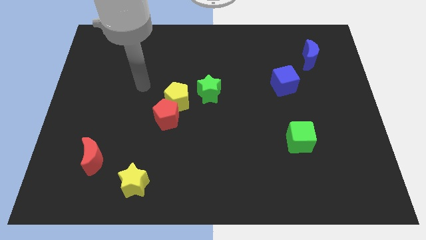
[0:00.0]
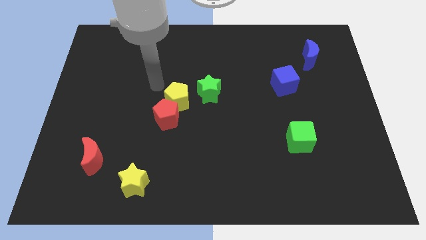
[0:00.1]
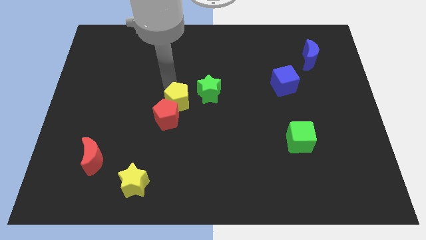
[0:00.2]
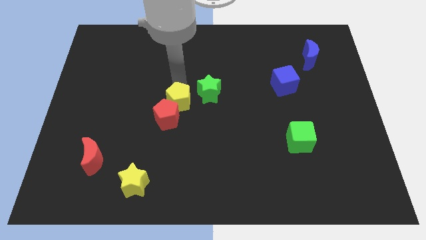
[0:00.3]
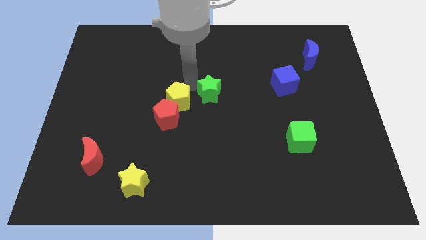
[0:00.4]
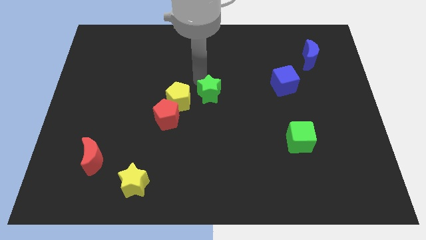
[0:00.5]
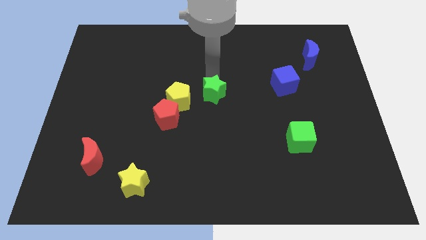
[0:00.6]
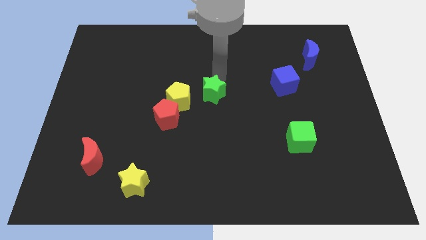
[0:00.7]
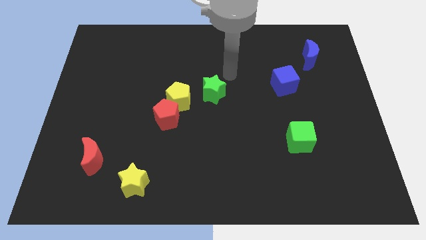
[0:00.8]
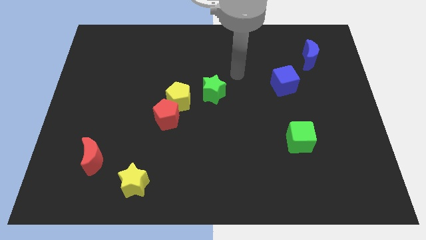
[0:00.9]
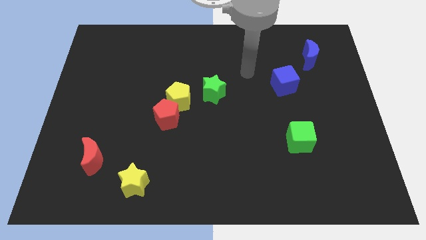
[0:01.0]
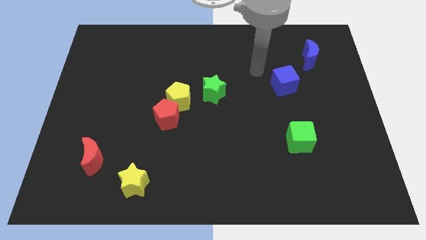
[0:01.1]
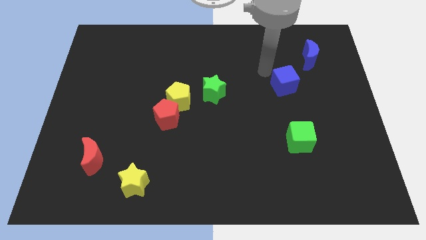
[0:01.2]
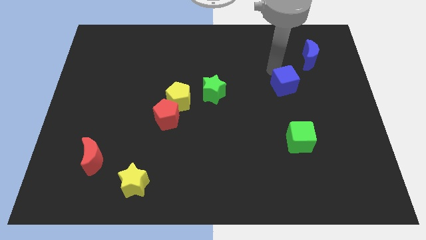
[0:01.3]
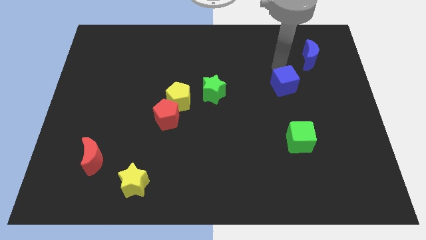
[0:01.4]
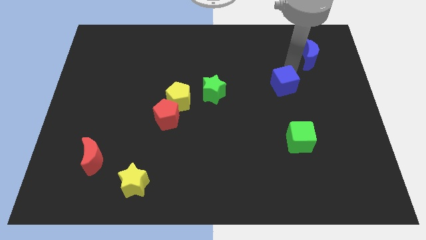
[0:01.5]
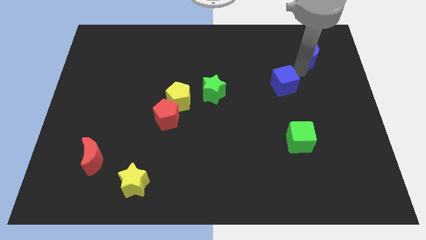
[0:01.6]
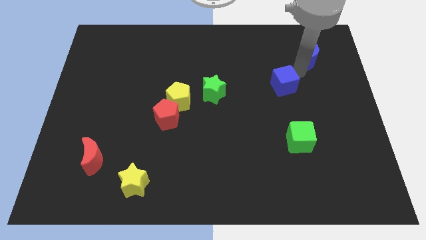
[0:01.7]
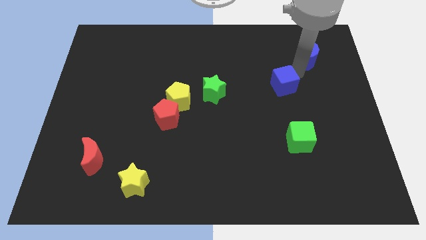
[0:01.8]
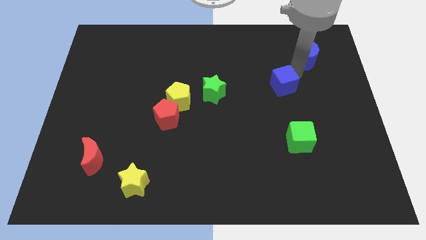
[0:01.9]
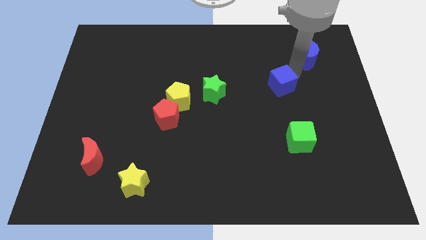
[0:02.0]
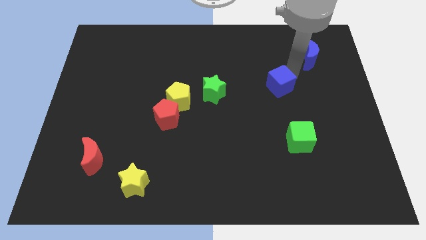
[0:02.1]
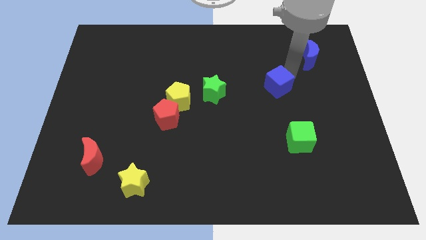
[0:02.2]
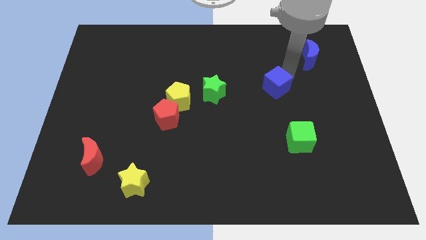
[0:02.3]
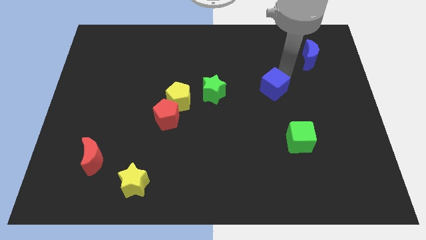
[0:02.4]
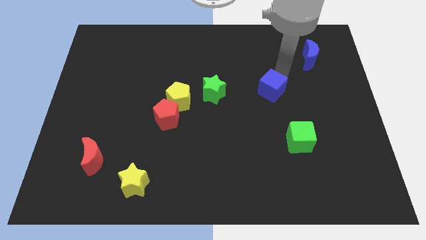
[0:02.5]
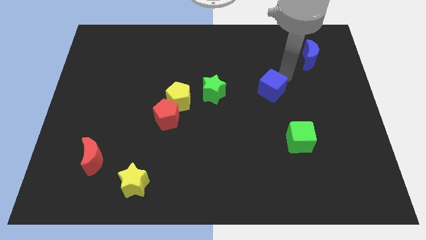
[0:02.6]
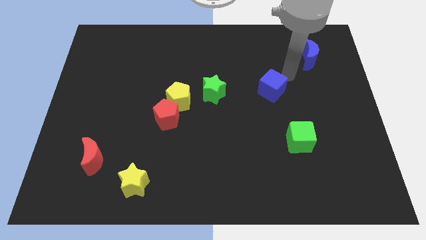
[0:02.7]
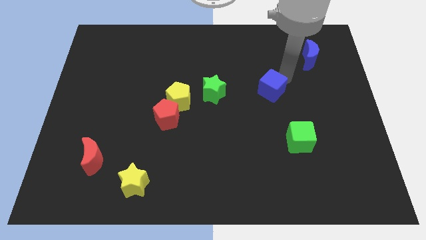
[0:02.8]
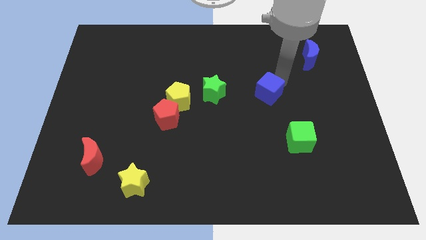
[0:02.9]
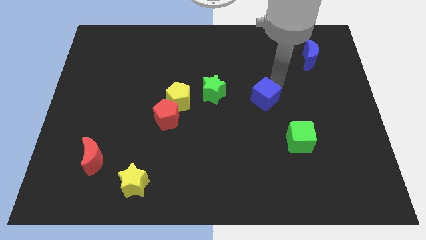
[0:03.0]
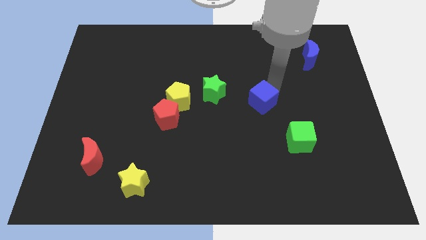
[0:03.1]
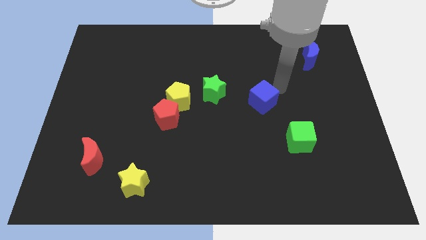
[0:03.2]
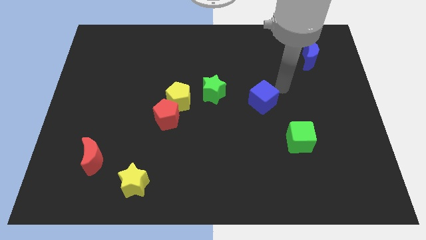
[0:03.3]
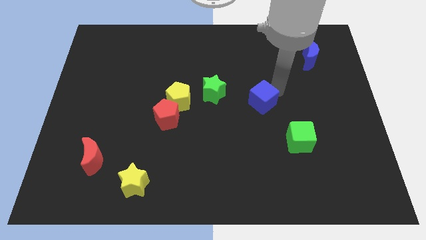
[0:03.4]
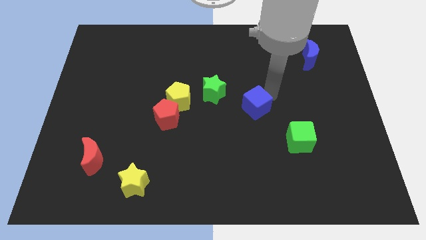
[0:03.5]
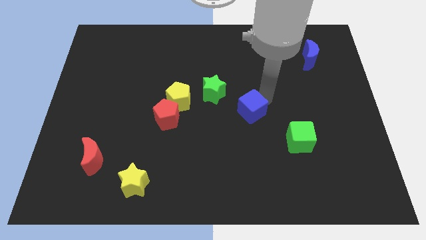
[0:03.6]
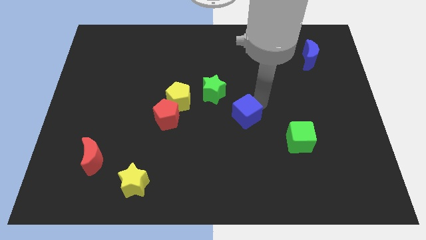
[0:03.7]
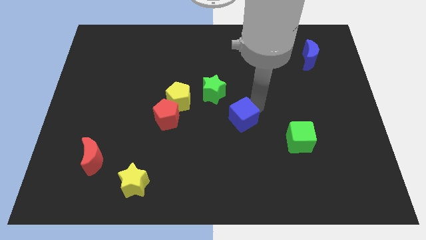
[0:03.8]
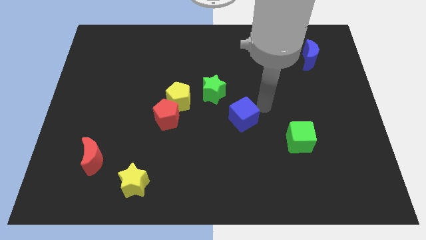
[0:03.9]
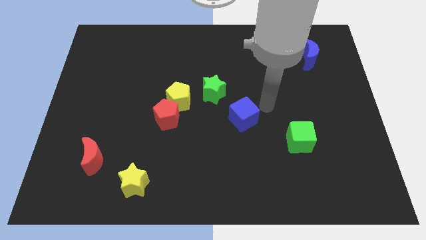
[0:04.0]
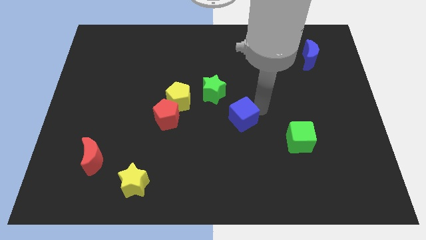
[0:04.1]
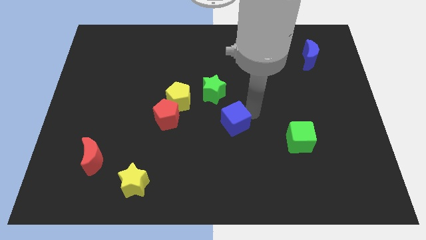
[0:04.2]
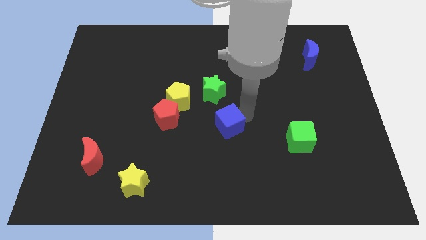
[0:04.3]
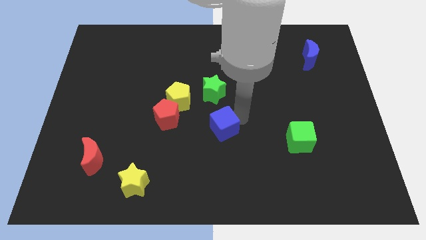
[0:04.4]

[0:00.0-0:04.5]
slide the blue cube downwards and left

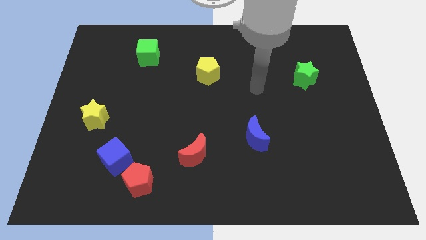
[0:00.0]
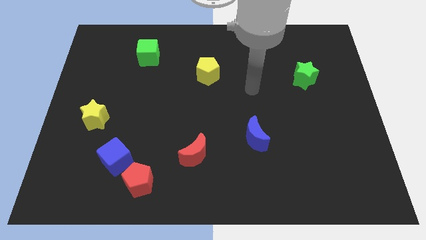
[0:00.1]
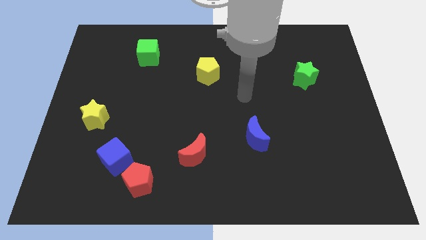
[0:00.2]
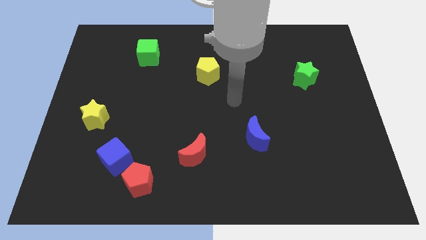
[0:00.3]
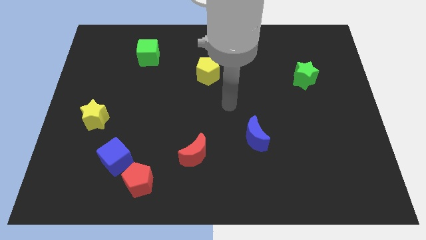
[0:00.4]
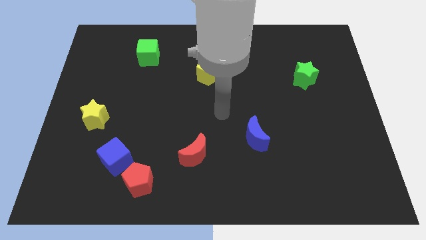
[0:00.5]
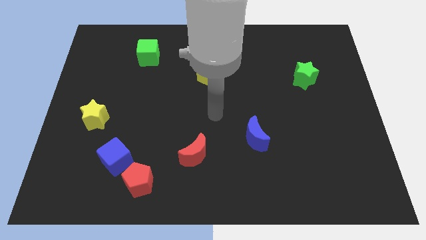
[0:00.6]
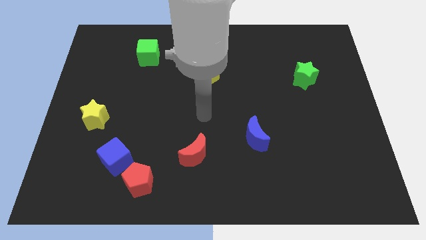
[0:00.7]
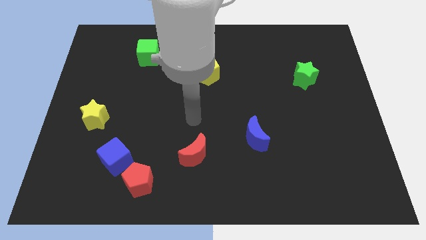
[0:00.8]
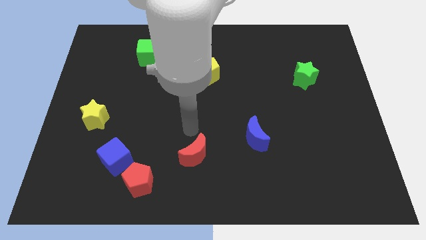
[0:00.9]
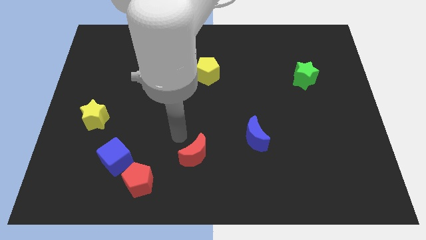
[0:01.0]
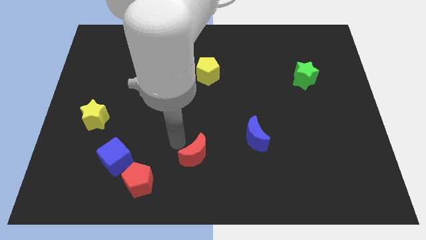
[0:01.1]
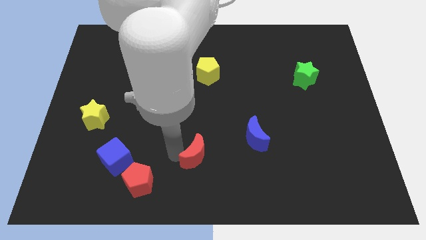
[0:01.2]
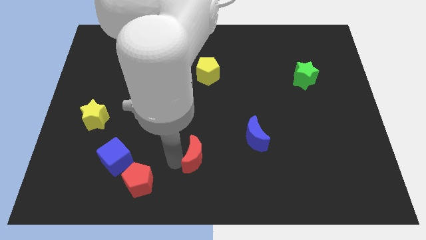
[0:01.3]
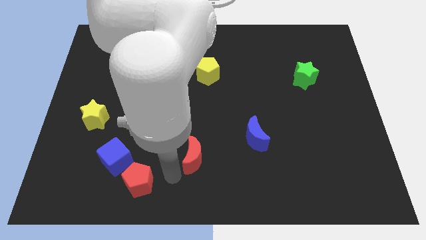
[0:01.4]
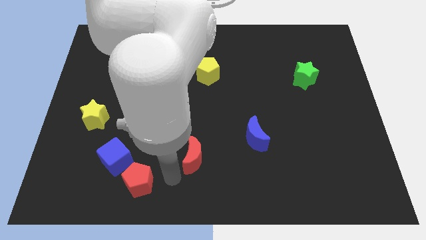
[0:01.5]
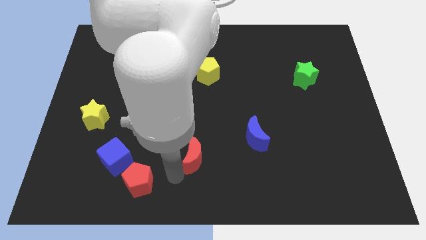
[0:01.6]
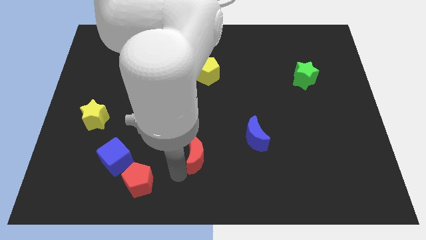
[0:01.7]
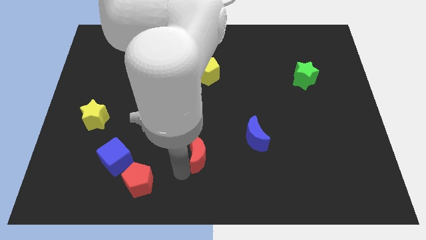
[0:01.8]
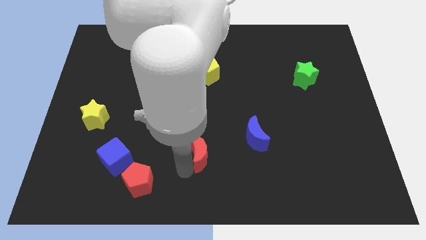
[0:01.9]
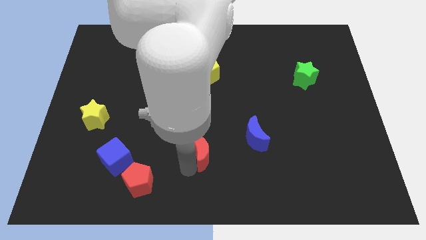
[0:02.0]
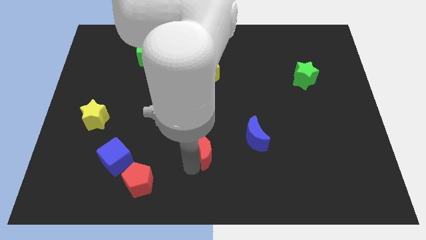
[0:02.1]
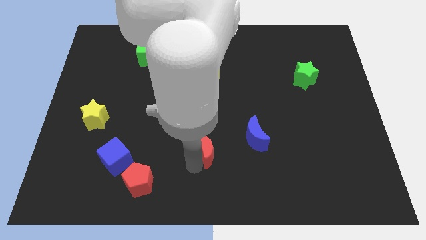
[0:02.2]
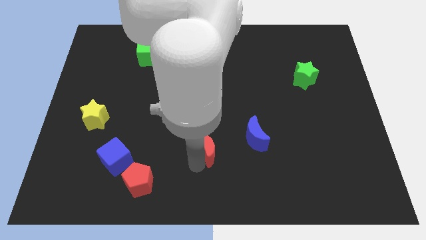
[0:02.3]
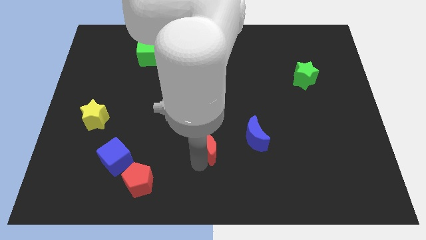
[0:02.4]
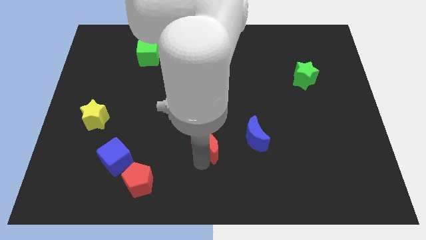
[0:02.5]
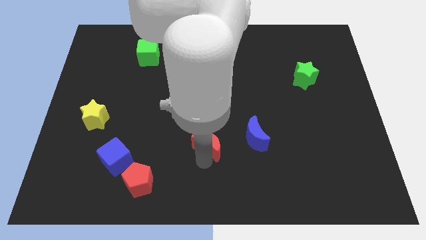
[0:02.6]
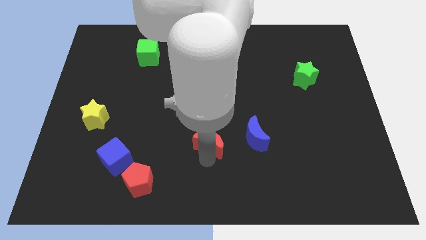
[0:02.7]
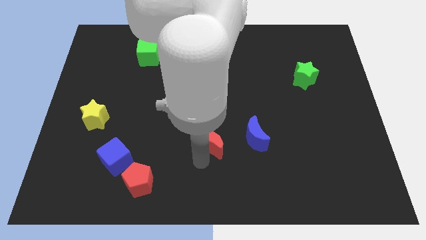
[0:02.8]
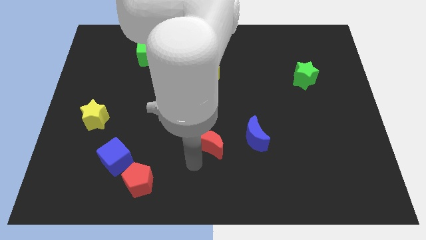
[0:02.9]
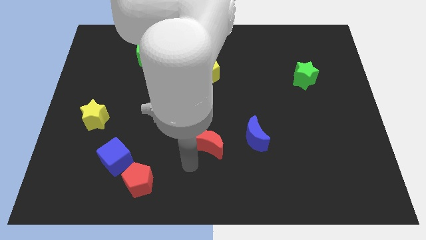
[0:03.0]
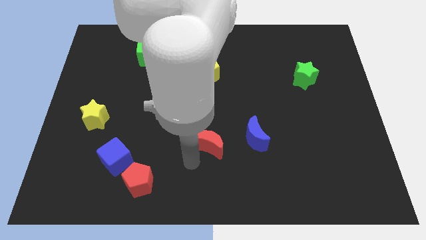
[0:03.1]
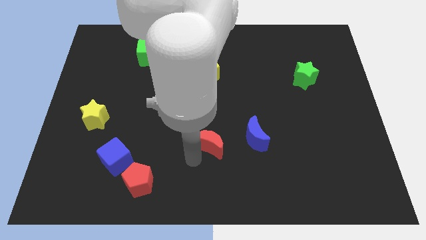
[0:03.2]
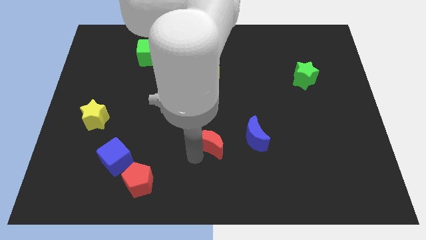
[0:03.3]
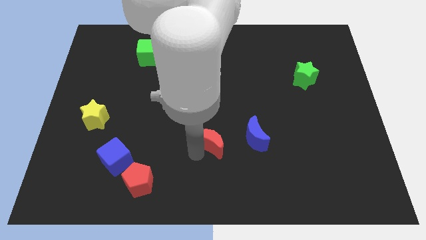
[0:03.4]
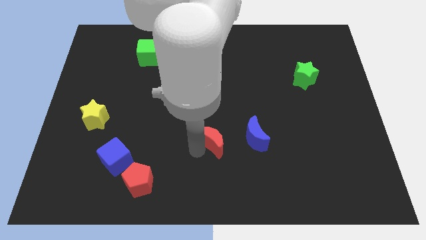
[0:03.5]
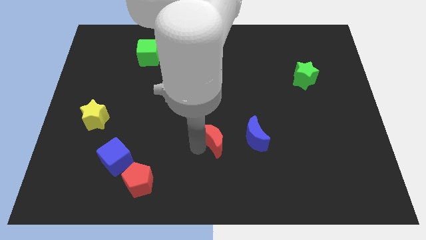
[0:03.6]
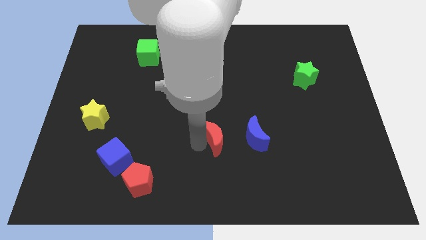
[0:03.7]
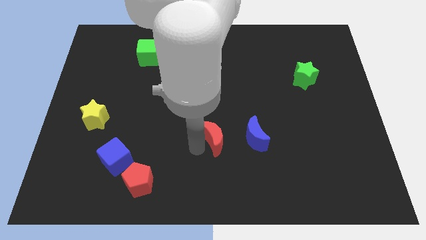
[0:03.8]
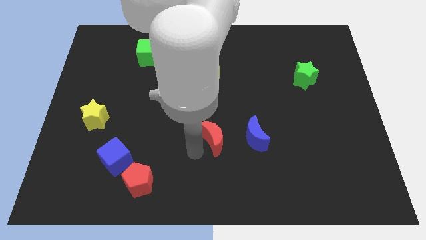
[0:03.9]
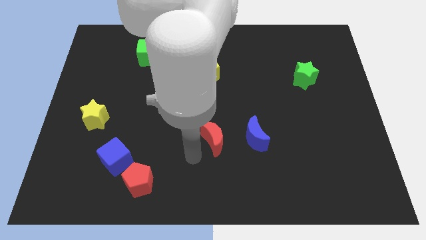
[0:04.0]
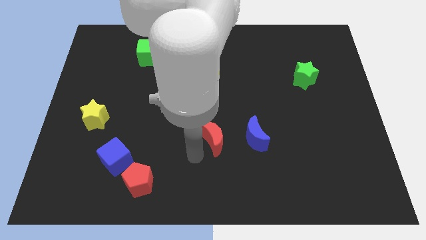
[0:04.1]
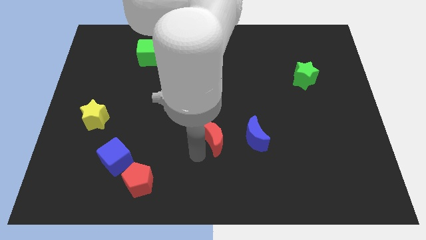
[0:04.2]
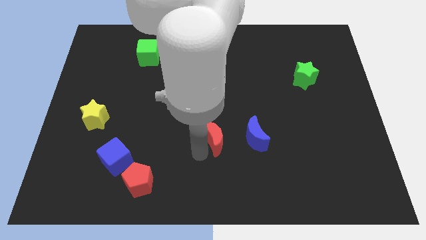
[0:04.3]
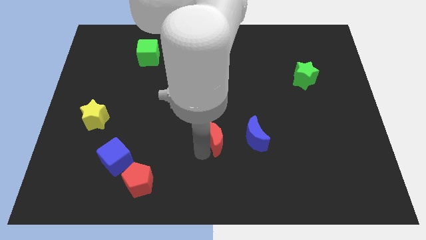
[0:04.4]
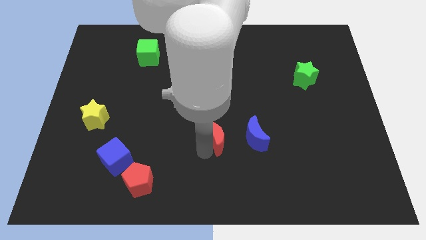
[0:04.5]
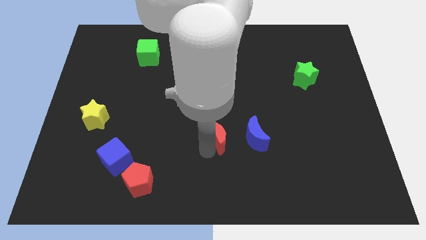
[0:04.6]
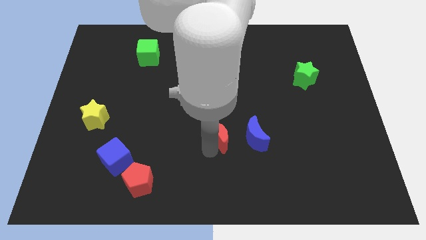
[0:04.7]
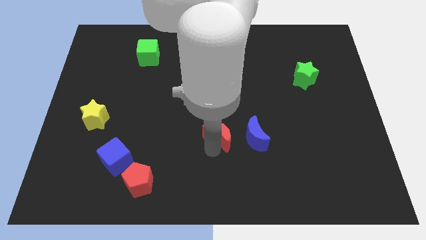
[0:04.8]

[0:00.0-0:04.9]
slide the red moon slightly diagonally upwards and right
